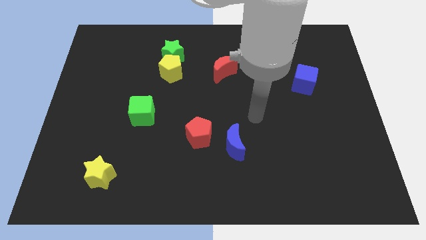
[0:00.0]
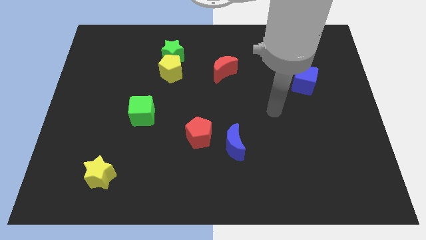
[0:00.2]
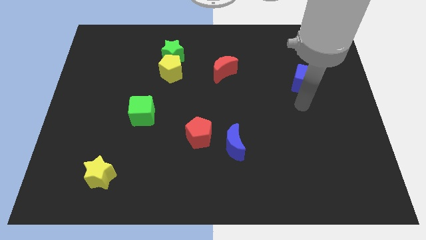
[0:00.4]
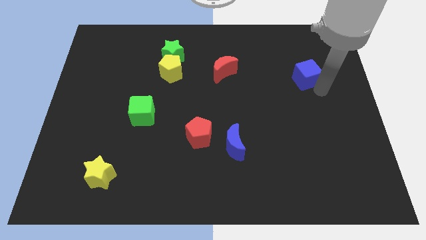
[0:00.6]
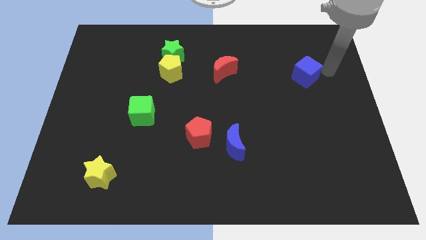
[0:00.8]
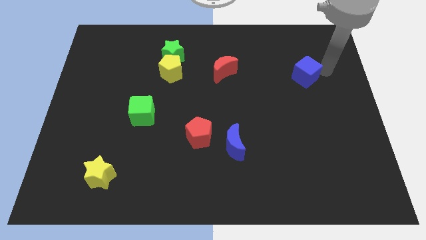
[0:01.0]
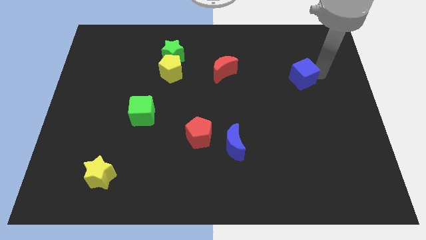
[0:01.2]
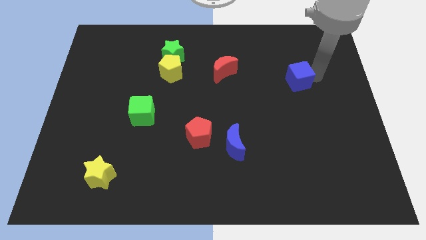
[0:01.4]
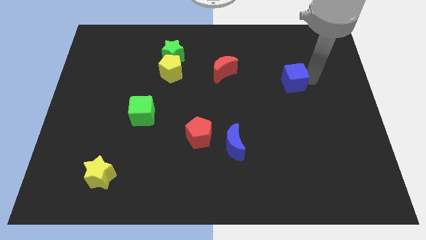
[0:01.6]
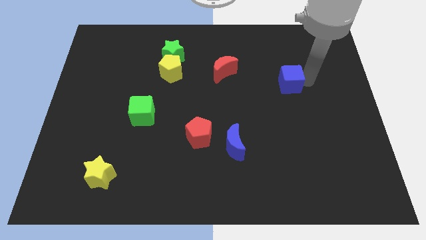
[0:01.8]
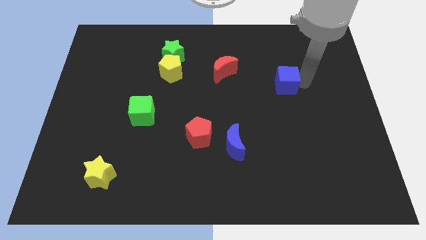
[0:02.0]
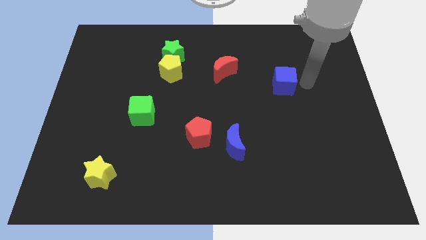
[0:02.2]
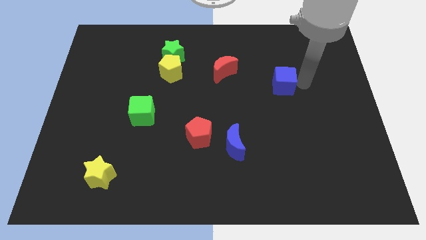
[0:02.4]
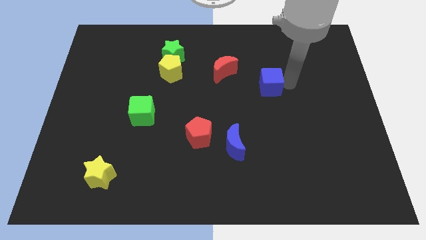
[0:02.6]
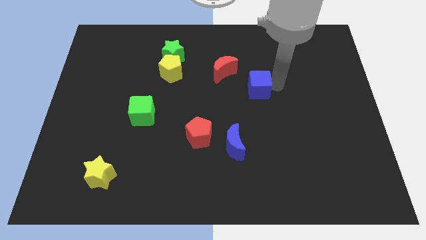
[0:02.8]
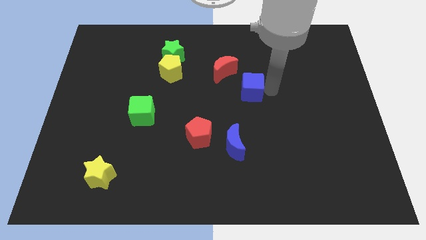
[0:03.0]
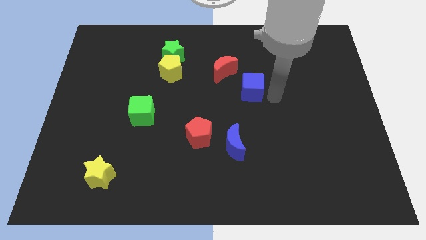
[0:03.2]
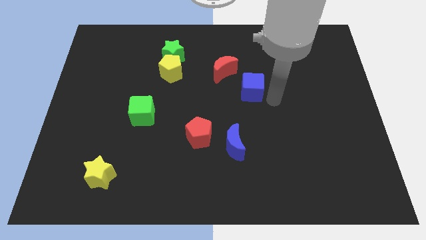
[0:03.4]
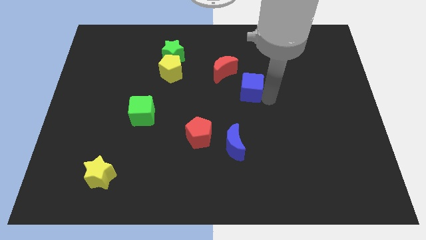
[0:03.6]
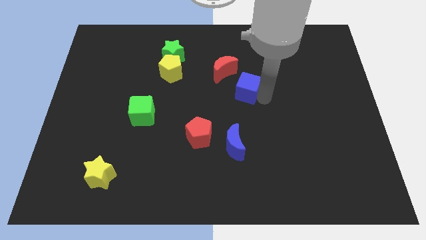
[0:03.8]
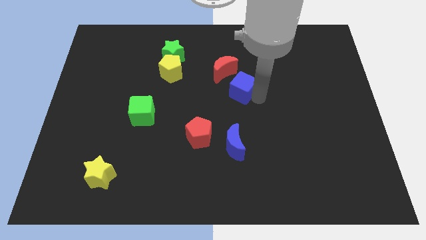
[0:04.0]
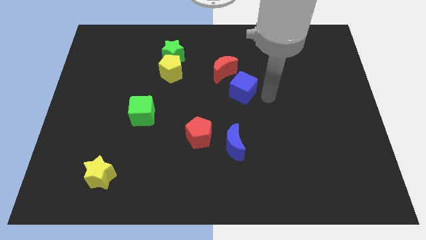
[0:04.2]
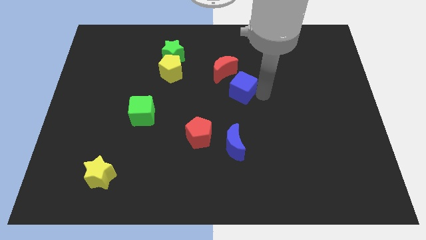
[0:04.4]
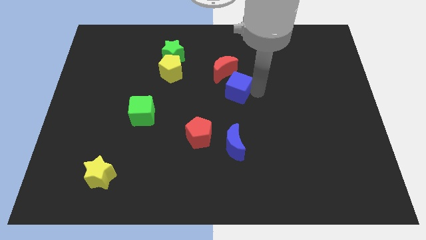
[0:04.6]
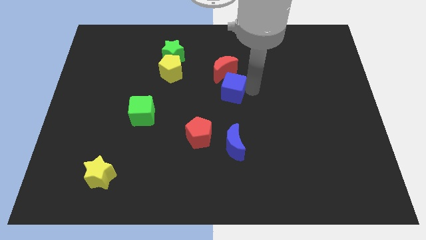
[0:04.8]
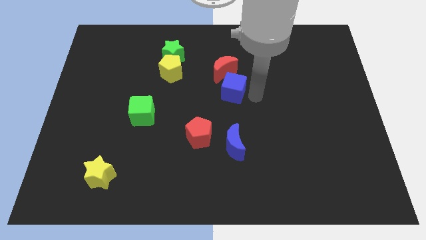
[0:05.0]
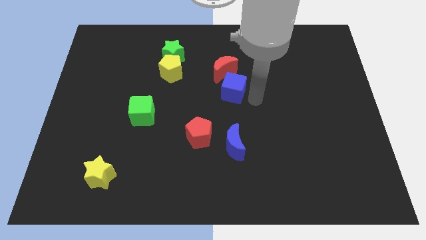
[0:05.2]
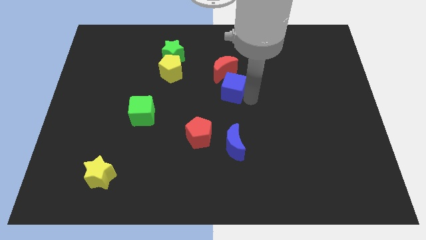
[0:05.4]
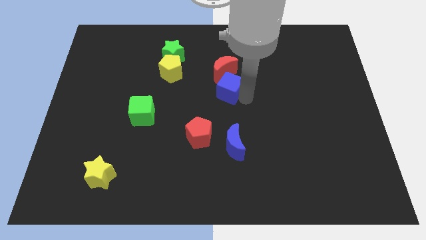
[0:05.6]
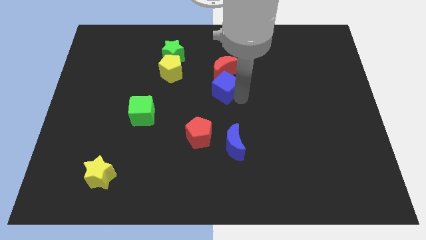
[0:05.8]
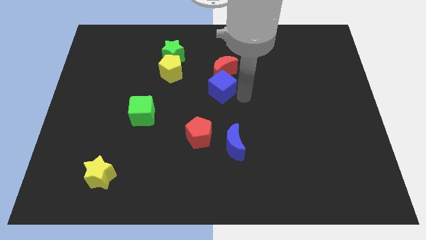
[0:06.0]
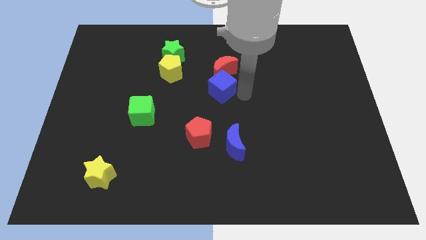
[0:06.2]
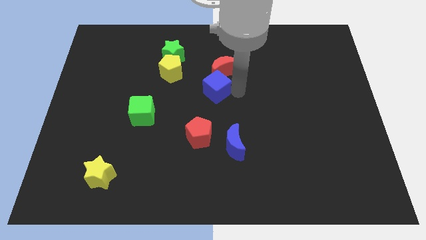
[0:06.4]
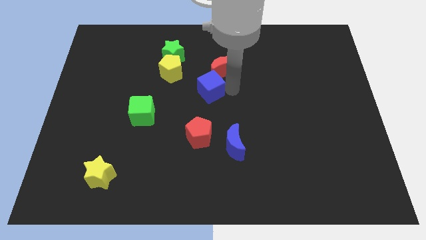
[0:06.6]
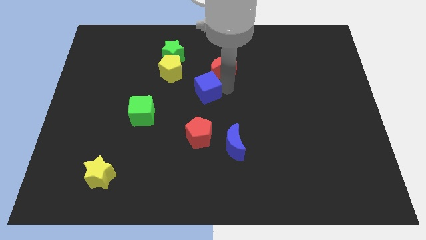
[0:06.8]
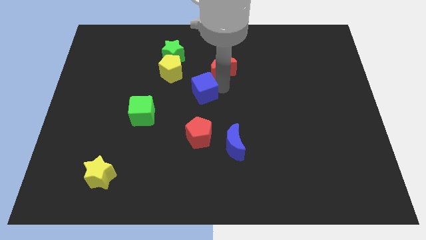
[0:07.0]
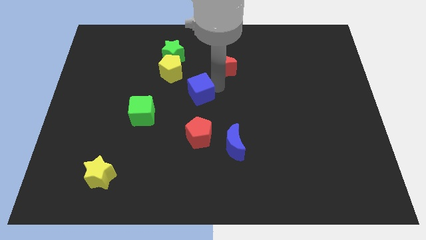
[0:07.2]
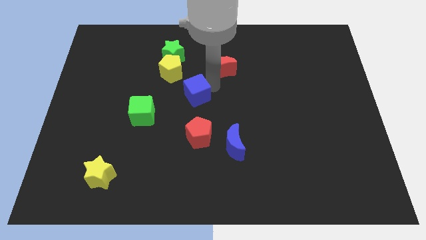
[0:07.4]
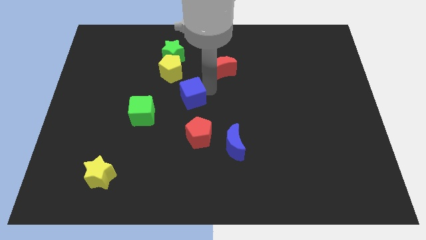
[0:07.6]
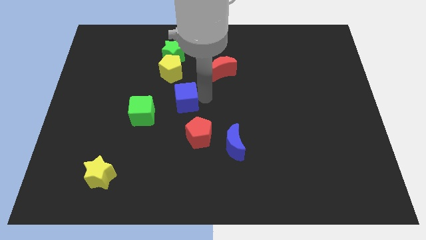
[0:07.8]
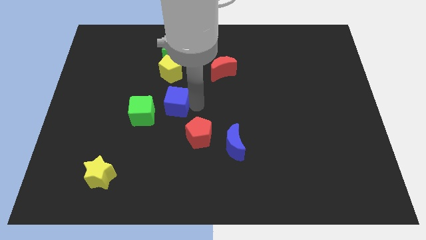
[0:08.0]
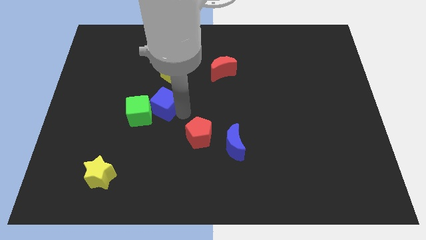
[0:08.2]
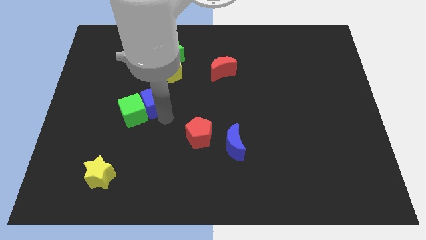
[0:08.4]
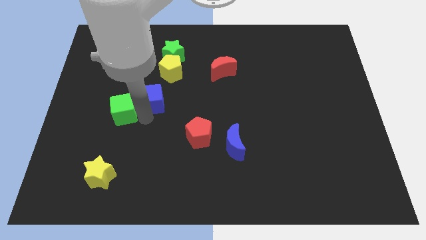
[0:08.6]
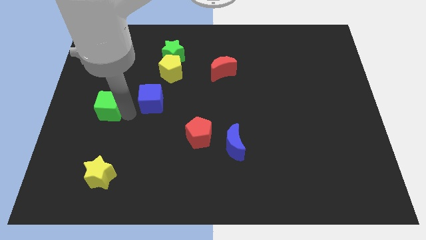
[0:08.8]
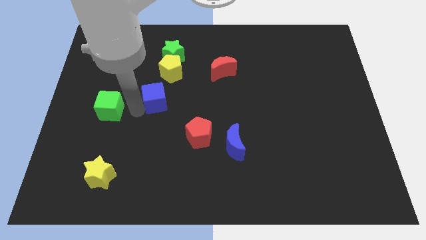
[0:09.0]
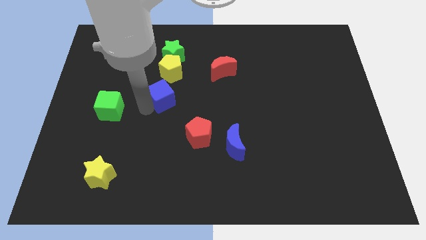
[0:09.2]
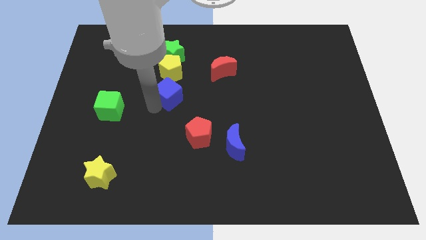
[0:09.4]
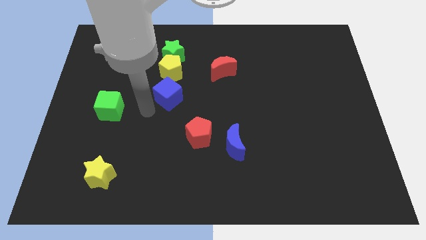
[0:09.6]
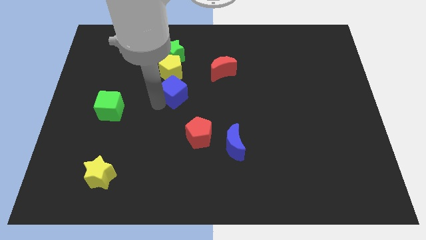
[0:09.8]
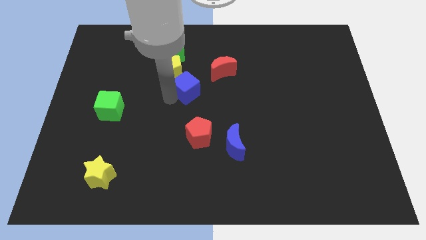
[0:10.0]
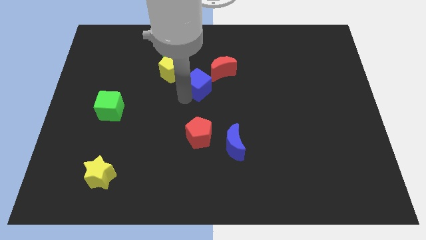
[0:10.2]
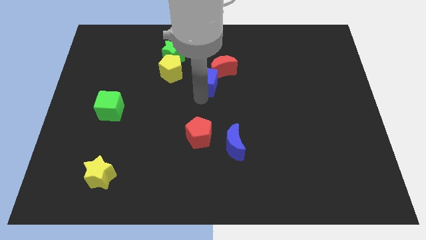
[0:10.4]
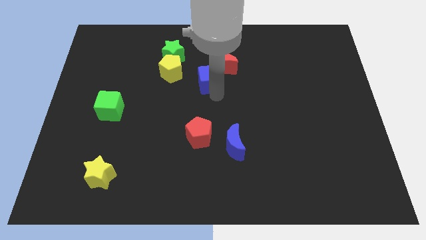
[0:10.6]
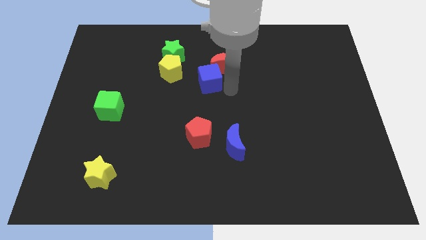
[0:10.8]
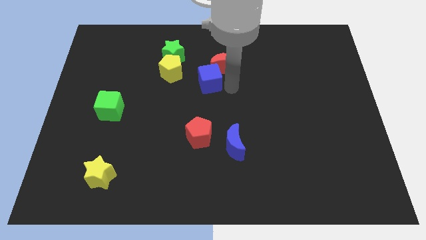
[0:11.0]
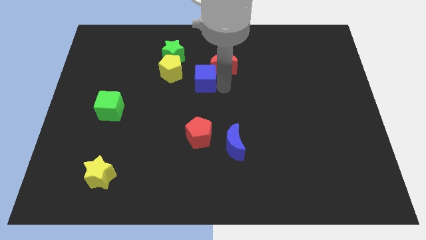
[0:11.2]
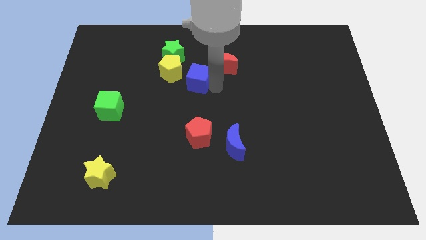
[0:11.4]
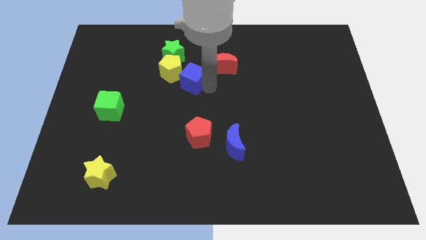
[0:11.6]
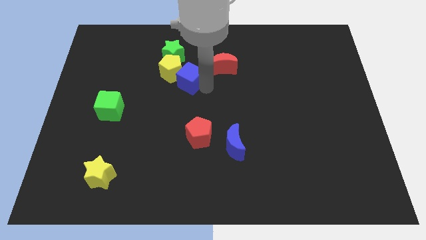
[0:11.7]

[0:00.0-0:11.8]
move the blue cube next to the yellow pentagon

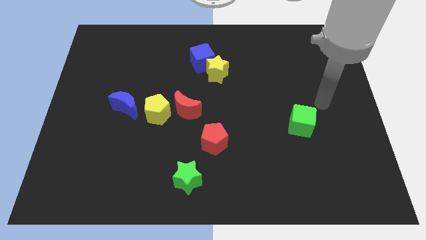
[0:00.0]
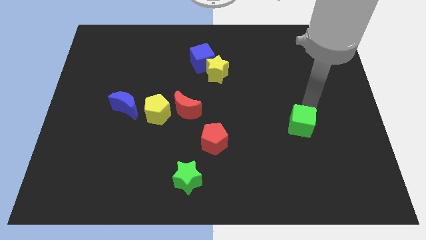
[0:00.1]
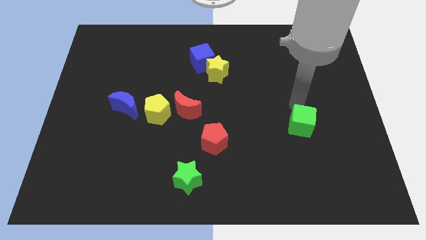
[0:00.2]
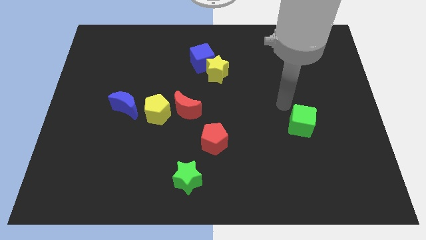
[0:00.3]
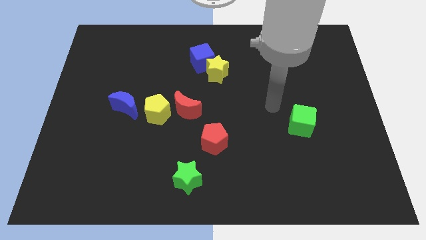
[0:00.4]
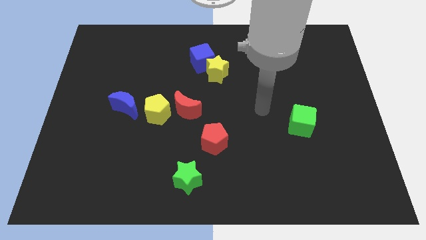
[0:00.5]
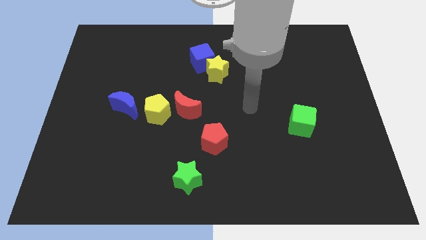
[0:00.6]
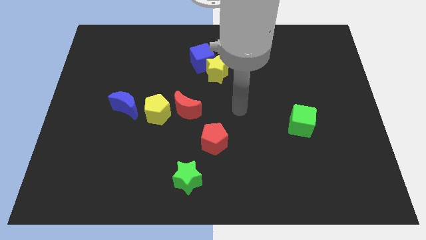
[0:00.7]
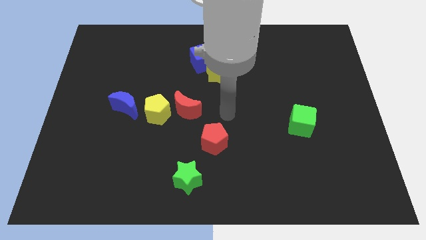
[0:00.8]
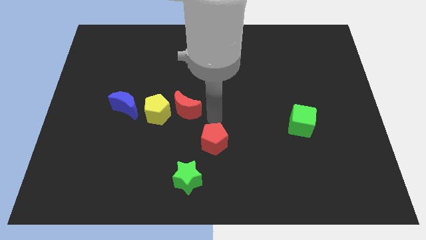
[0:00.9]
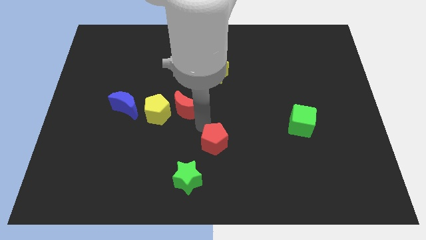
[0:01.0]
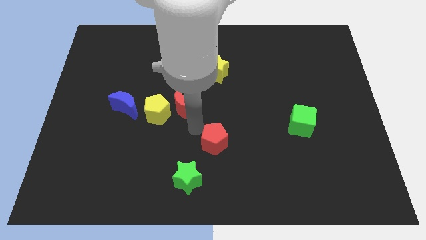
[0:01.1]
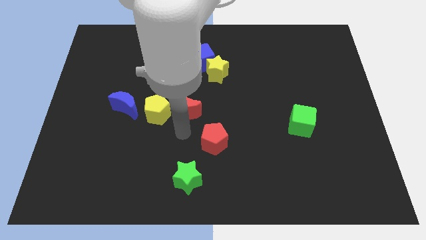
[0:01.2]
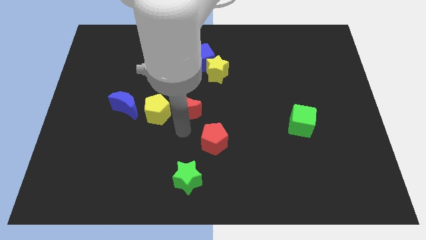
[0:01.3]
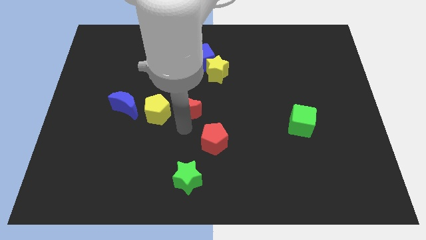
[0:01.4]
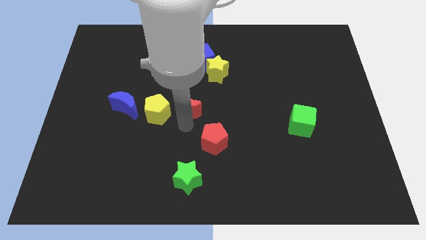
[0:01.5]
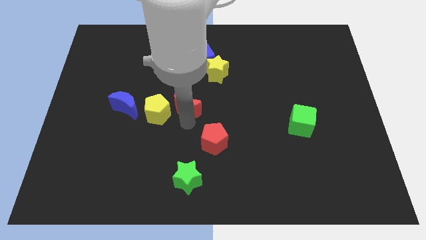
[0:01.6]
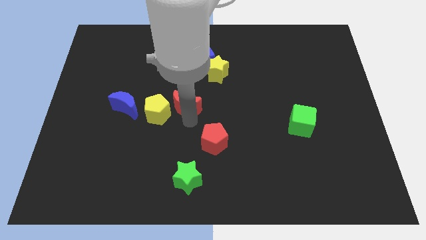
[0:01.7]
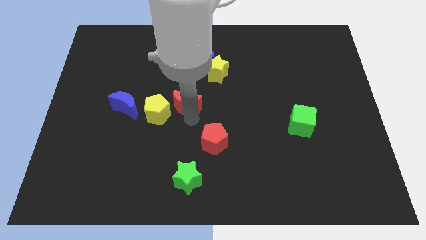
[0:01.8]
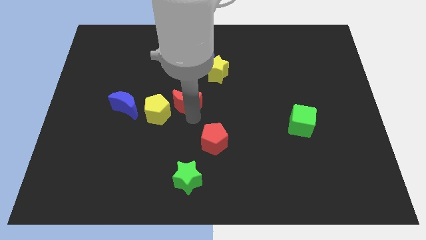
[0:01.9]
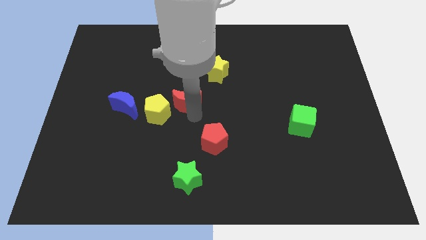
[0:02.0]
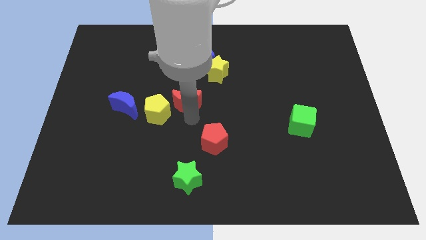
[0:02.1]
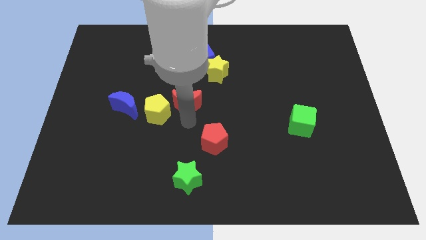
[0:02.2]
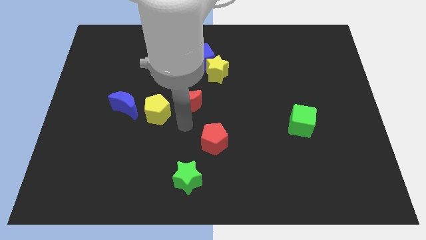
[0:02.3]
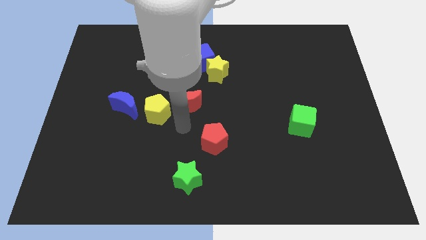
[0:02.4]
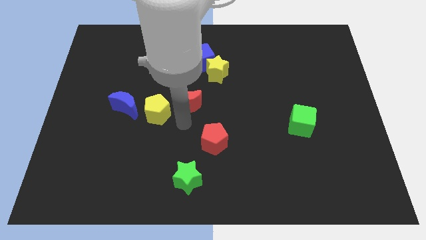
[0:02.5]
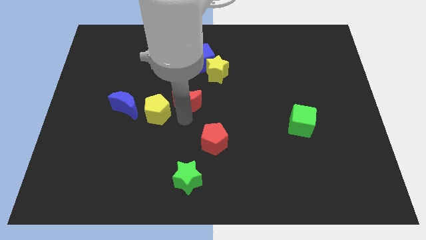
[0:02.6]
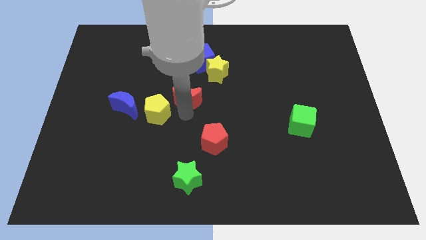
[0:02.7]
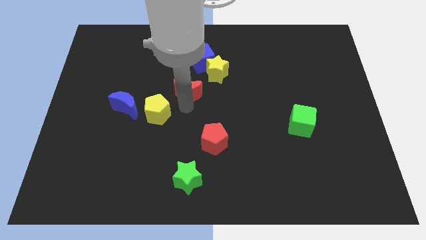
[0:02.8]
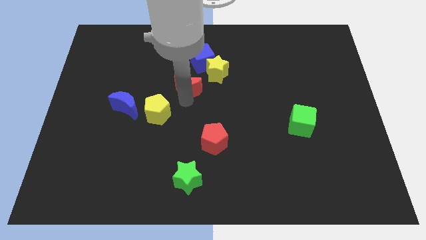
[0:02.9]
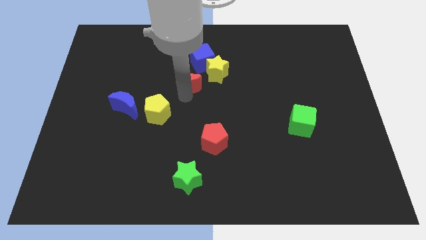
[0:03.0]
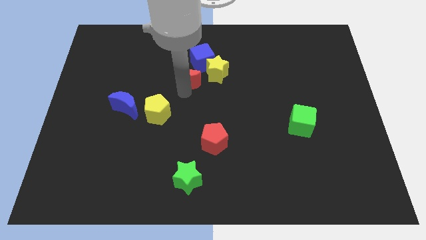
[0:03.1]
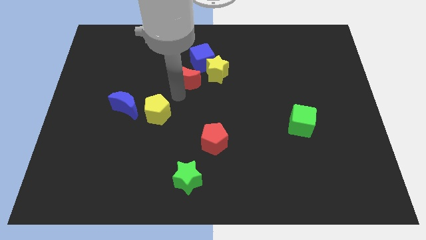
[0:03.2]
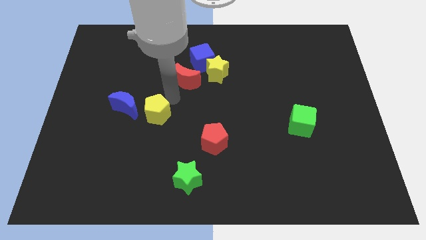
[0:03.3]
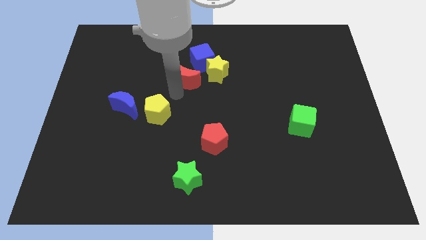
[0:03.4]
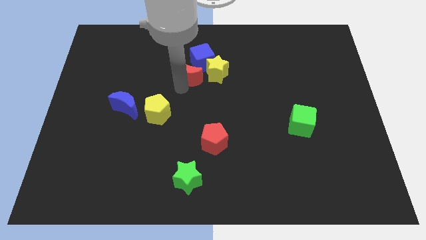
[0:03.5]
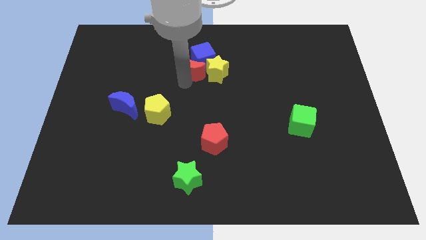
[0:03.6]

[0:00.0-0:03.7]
move the red moon next to the blue cube
